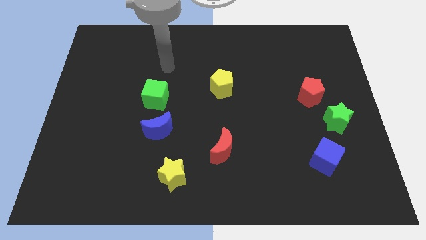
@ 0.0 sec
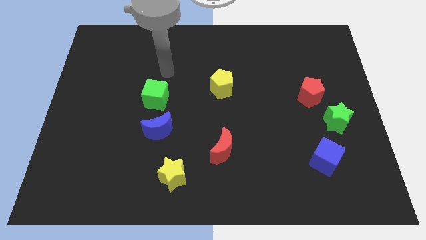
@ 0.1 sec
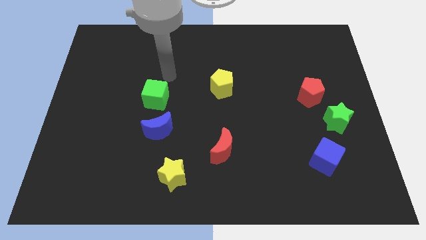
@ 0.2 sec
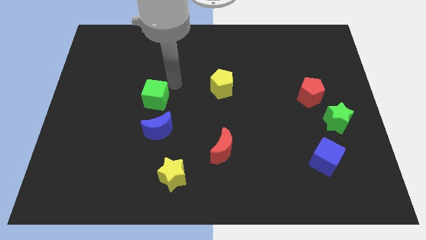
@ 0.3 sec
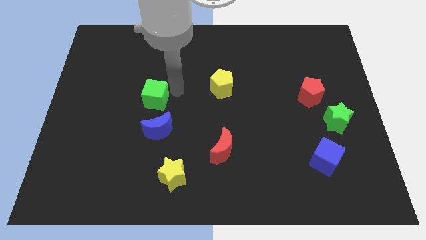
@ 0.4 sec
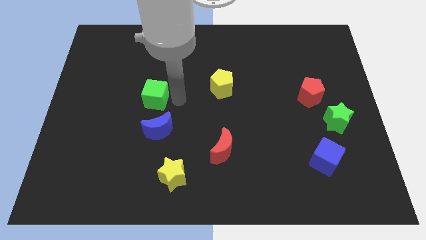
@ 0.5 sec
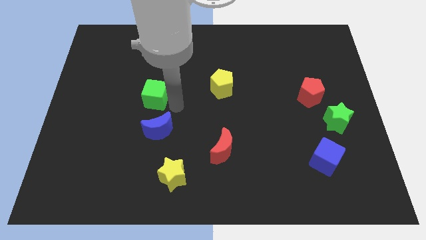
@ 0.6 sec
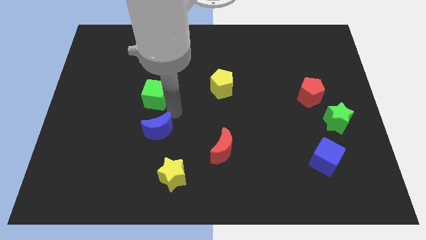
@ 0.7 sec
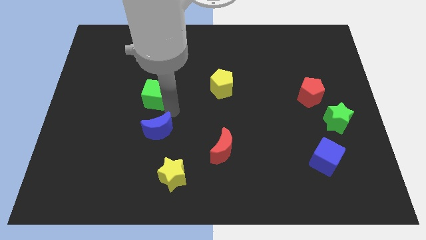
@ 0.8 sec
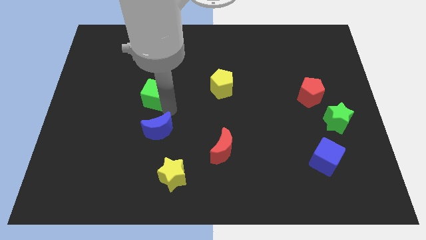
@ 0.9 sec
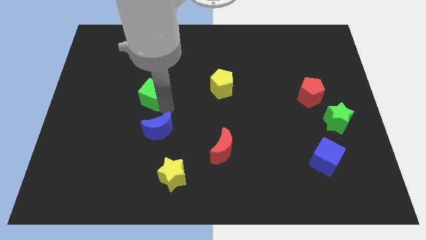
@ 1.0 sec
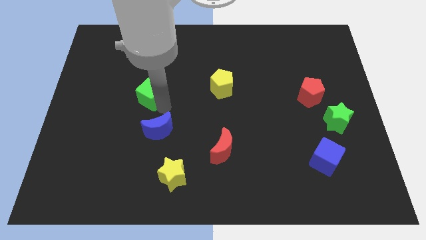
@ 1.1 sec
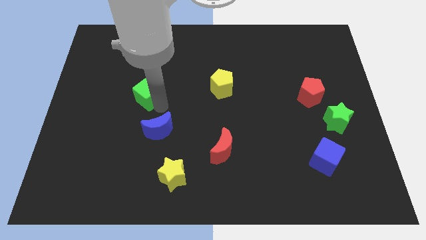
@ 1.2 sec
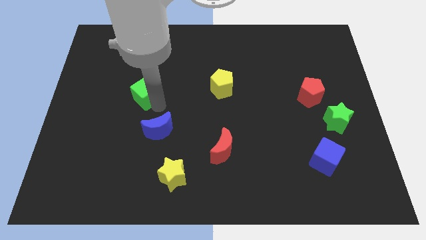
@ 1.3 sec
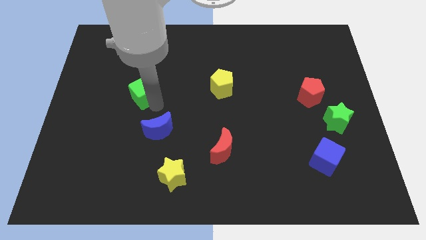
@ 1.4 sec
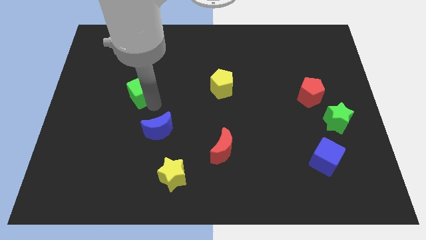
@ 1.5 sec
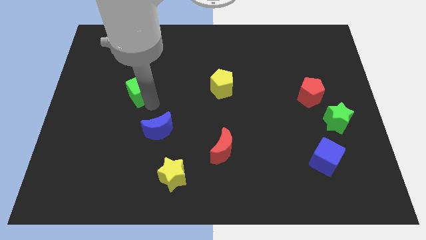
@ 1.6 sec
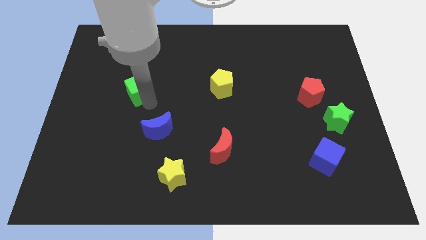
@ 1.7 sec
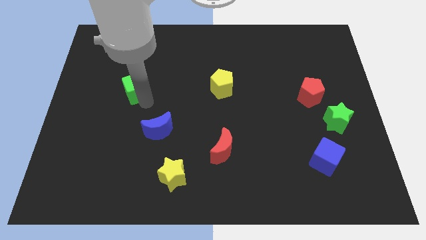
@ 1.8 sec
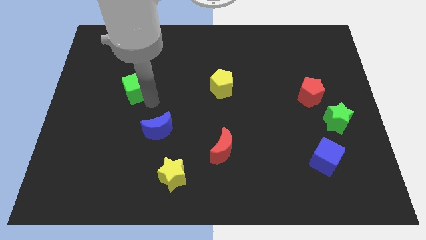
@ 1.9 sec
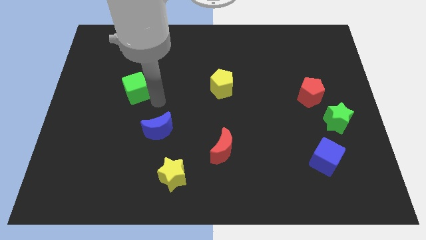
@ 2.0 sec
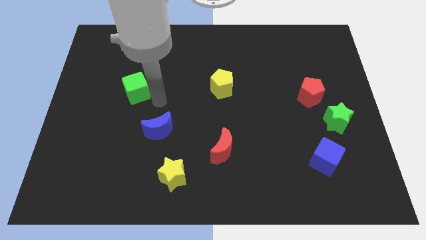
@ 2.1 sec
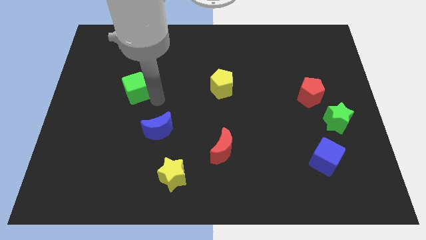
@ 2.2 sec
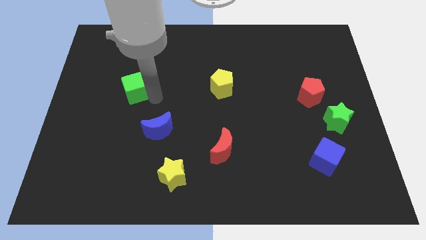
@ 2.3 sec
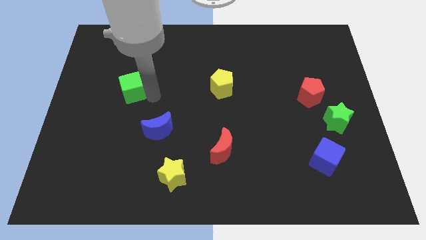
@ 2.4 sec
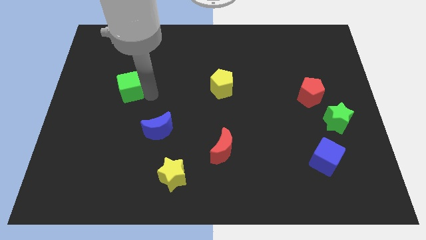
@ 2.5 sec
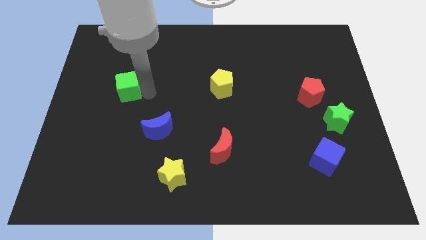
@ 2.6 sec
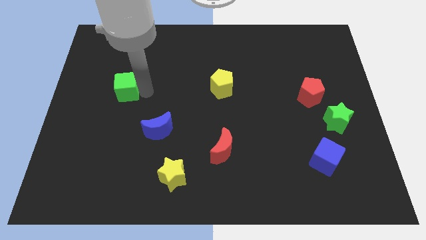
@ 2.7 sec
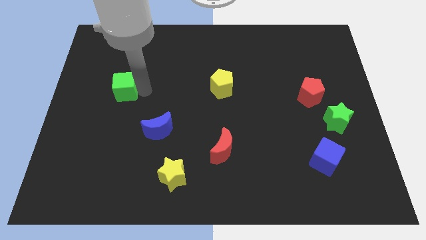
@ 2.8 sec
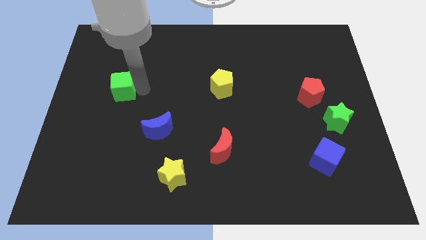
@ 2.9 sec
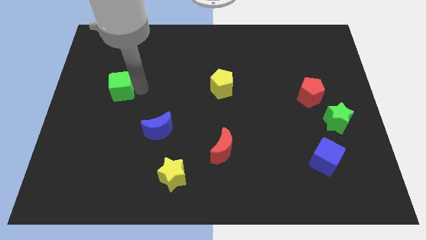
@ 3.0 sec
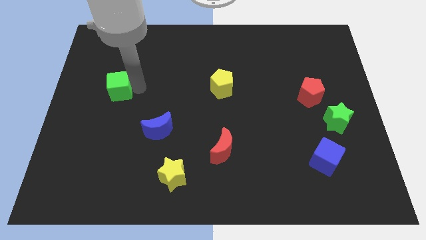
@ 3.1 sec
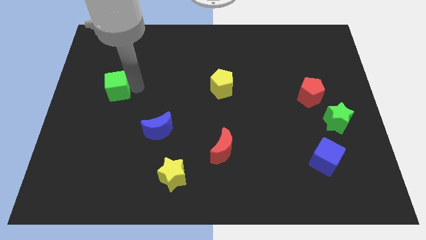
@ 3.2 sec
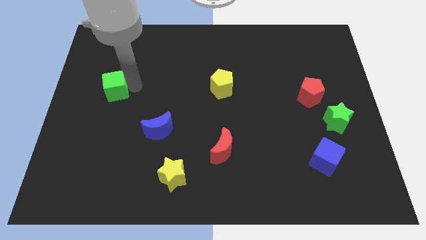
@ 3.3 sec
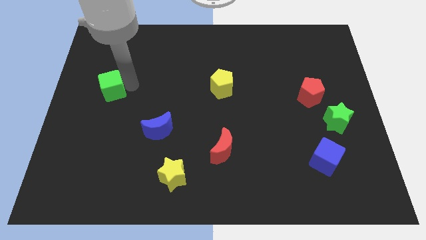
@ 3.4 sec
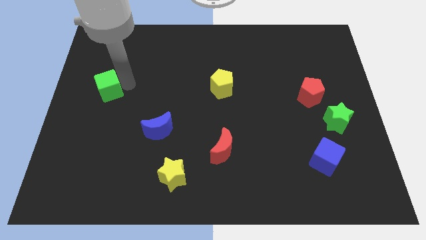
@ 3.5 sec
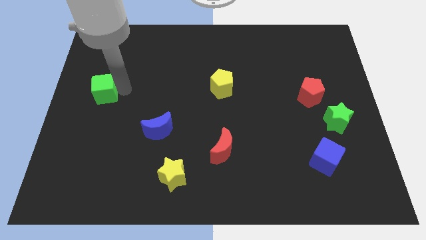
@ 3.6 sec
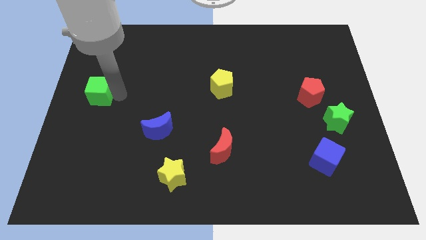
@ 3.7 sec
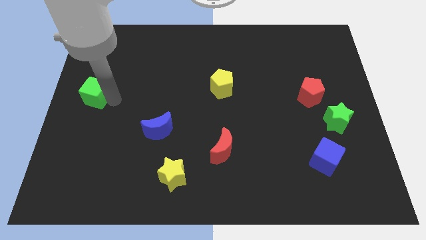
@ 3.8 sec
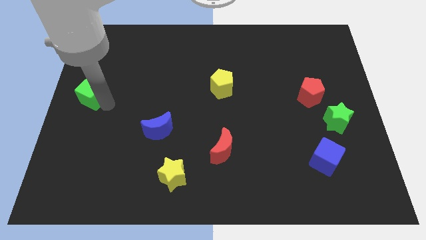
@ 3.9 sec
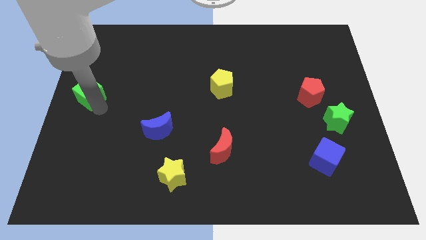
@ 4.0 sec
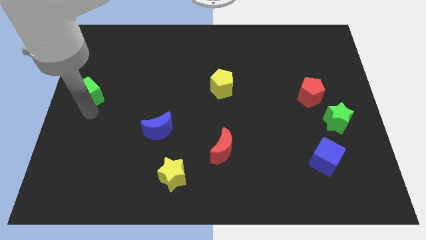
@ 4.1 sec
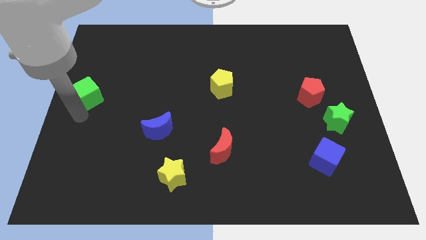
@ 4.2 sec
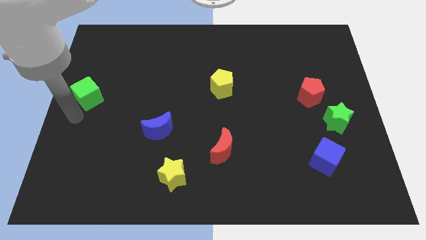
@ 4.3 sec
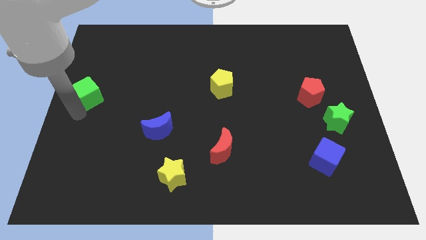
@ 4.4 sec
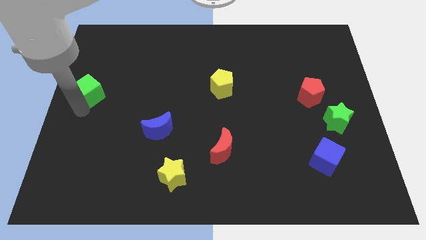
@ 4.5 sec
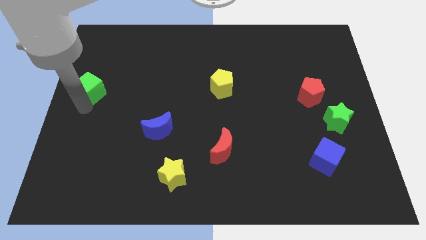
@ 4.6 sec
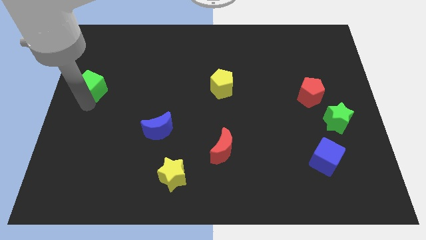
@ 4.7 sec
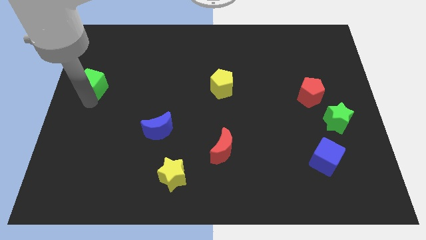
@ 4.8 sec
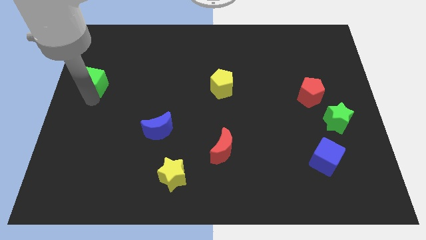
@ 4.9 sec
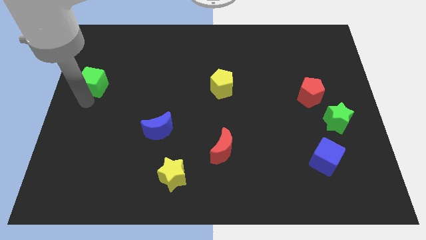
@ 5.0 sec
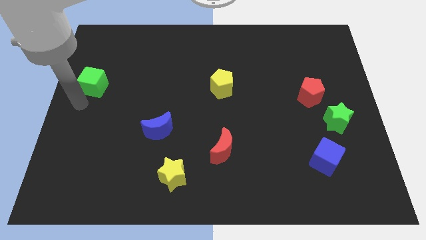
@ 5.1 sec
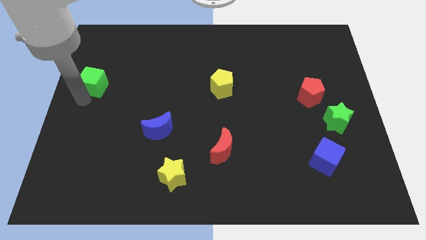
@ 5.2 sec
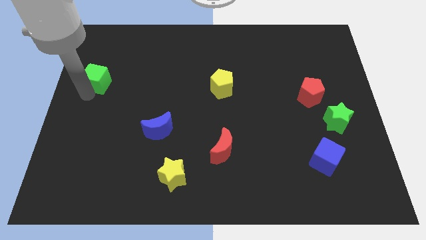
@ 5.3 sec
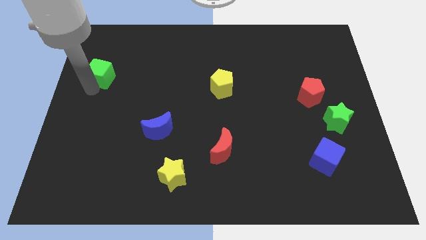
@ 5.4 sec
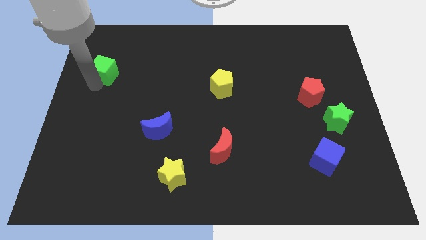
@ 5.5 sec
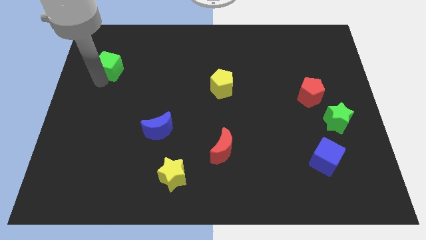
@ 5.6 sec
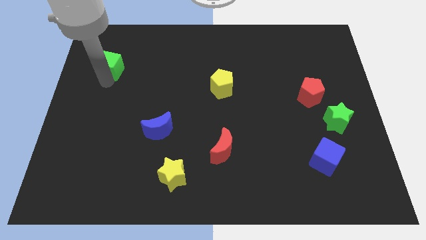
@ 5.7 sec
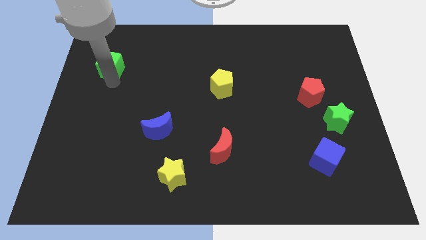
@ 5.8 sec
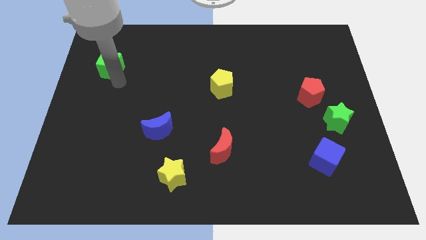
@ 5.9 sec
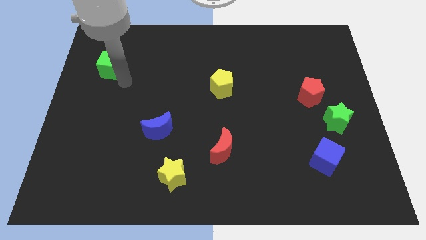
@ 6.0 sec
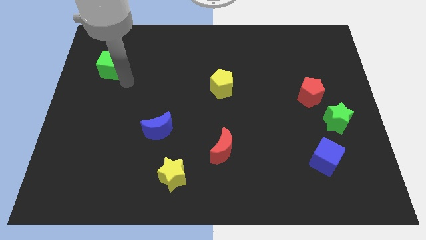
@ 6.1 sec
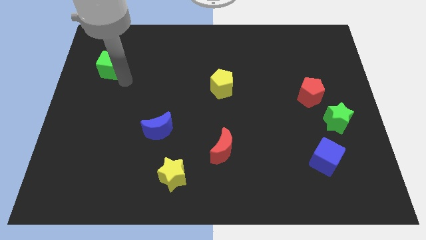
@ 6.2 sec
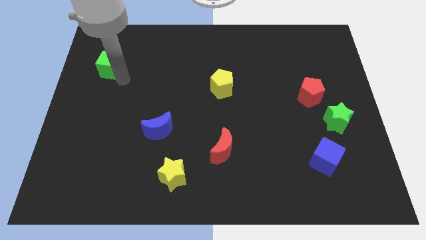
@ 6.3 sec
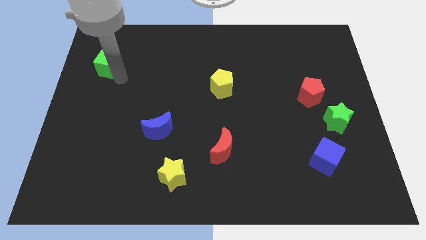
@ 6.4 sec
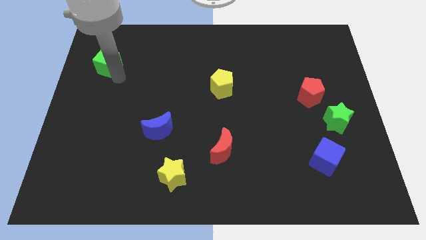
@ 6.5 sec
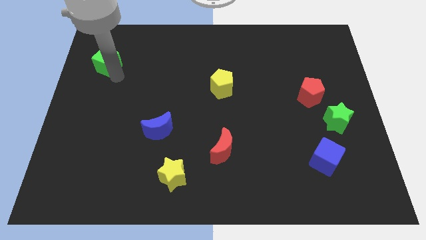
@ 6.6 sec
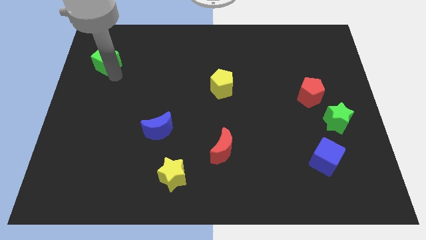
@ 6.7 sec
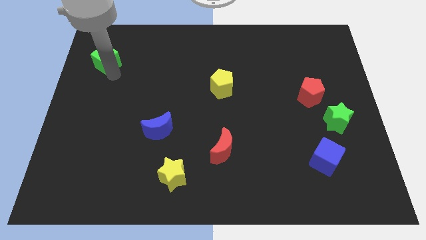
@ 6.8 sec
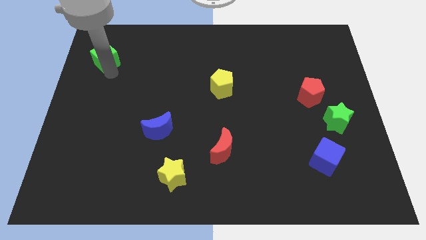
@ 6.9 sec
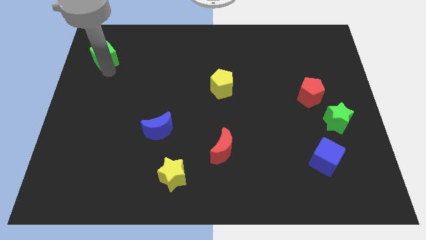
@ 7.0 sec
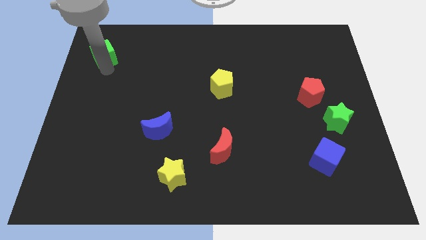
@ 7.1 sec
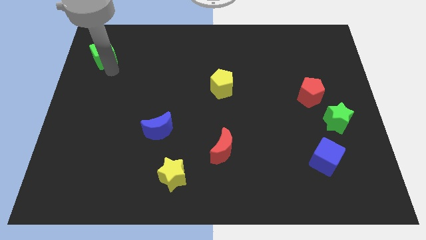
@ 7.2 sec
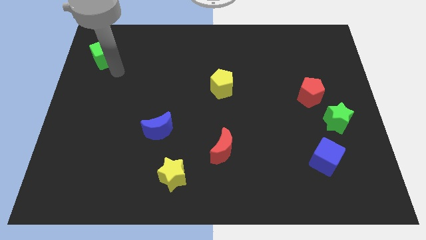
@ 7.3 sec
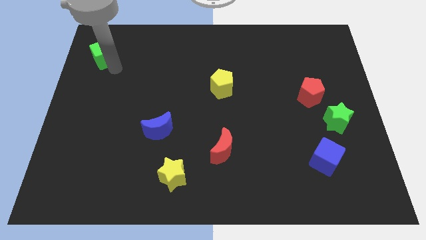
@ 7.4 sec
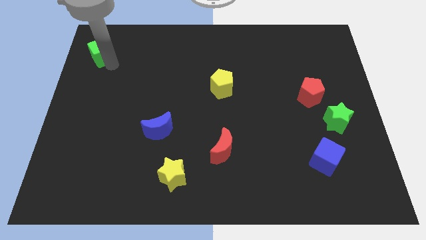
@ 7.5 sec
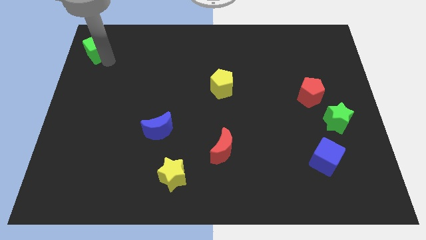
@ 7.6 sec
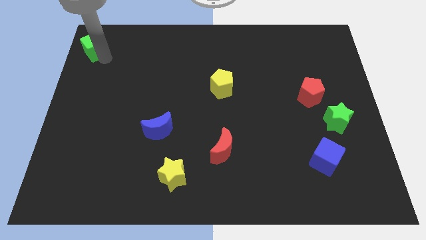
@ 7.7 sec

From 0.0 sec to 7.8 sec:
put the green cube to the top left corner
